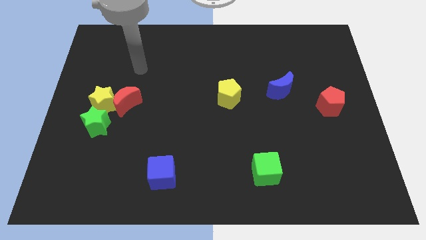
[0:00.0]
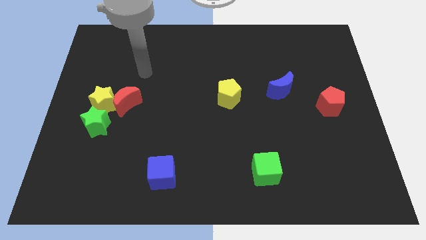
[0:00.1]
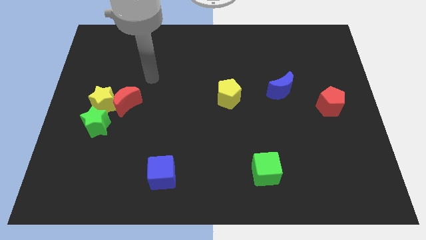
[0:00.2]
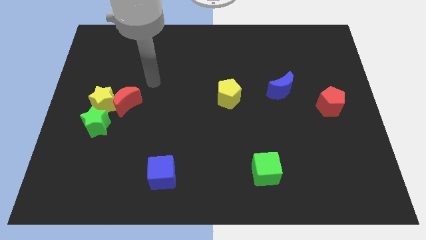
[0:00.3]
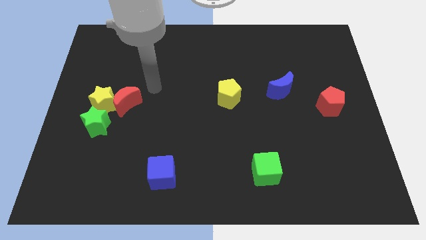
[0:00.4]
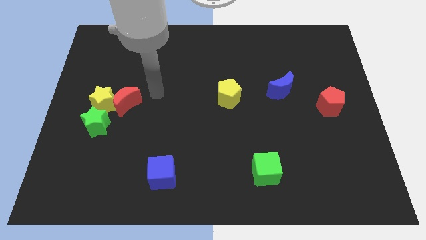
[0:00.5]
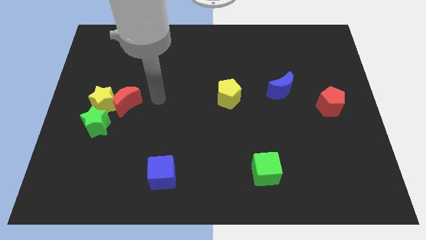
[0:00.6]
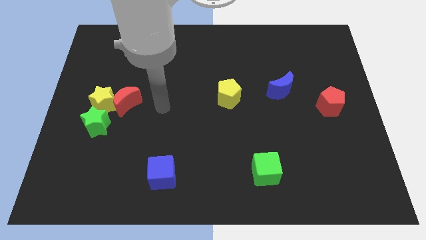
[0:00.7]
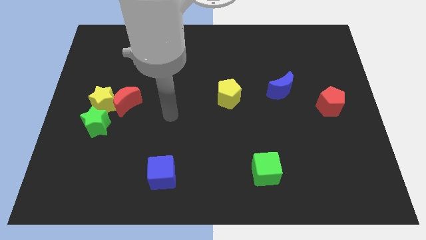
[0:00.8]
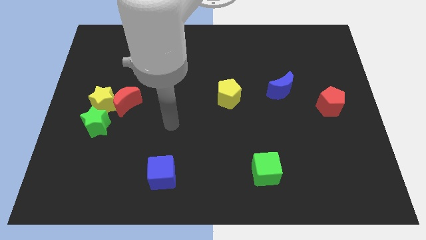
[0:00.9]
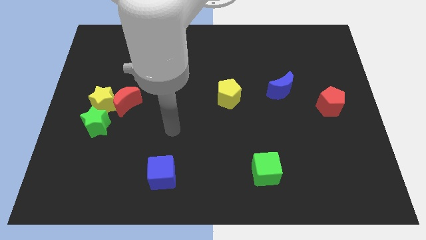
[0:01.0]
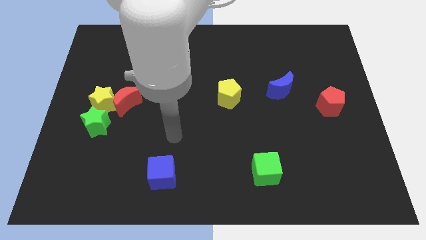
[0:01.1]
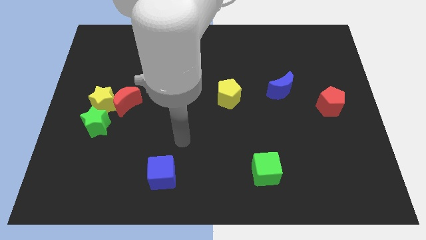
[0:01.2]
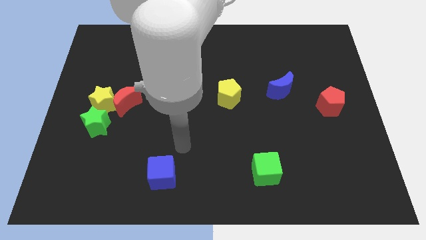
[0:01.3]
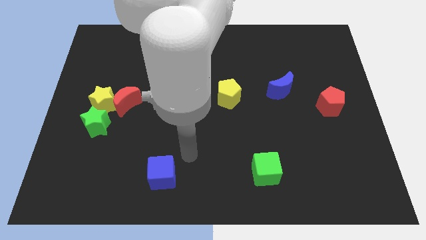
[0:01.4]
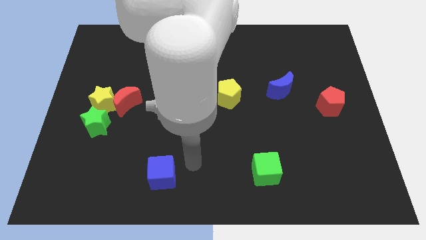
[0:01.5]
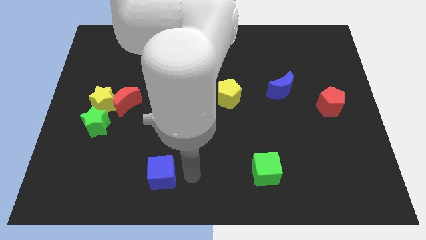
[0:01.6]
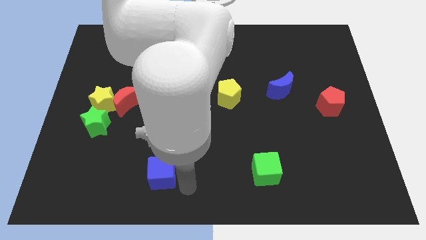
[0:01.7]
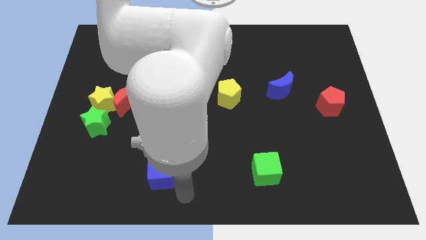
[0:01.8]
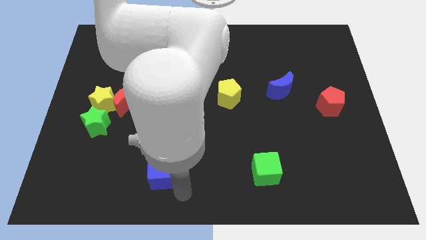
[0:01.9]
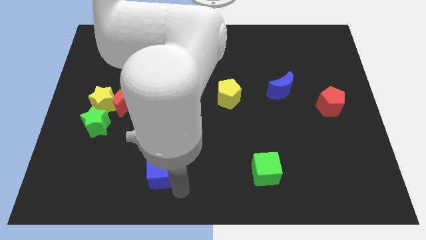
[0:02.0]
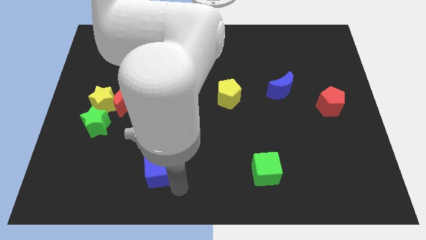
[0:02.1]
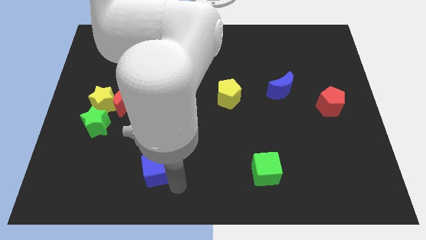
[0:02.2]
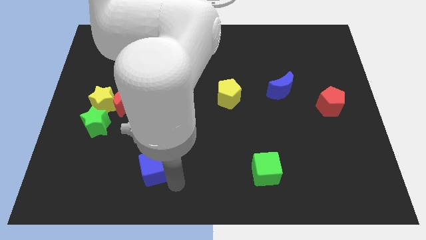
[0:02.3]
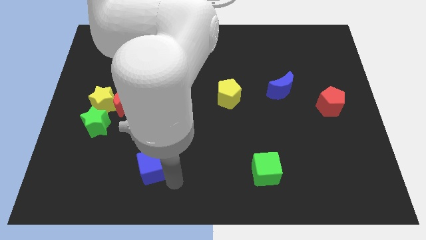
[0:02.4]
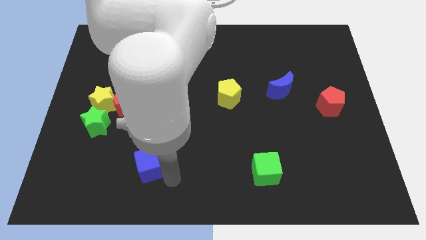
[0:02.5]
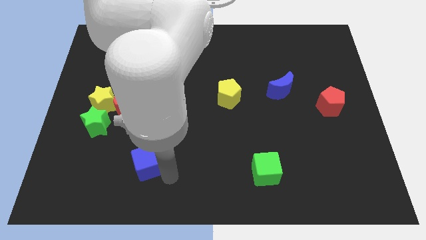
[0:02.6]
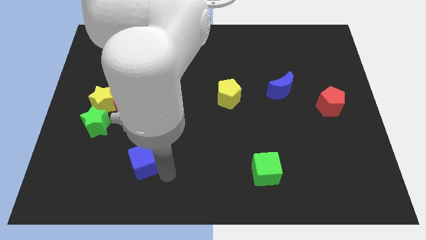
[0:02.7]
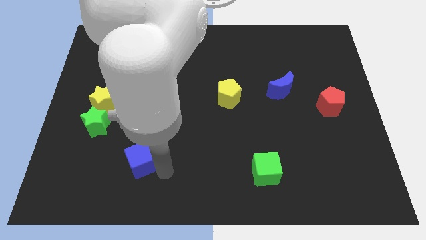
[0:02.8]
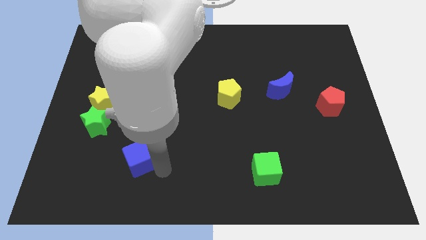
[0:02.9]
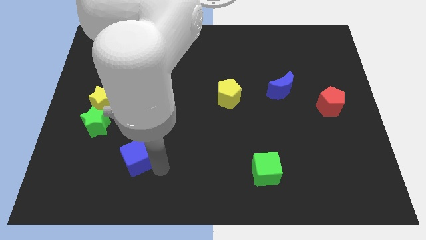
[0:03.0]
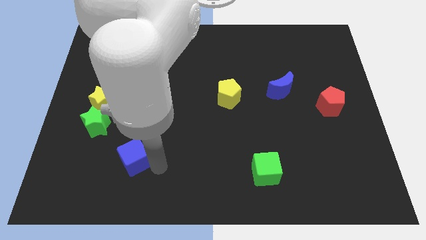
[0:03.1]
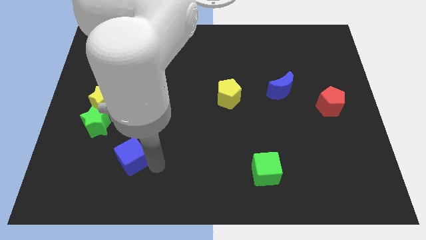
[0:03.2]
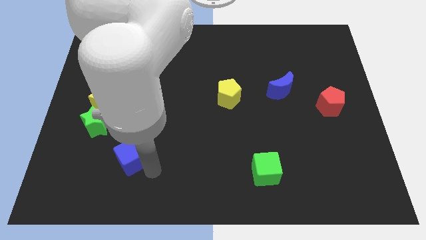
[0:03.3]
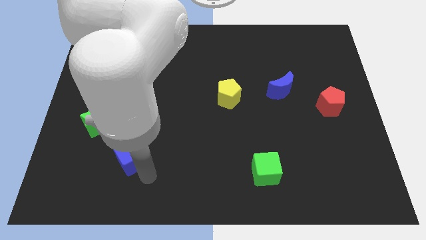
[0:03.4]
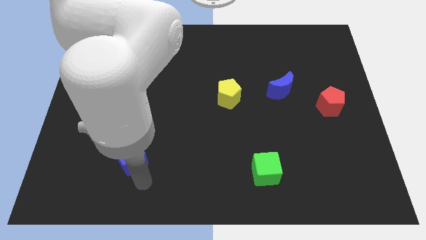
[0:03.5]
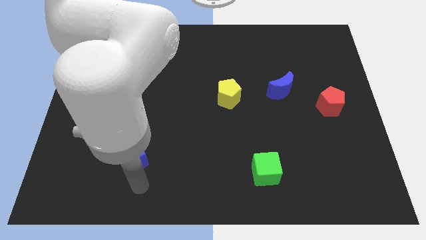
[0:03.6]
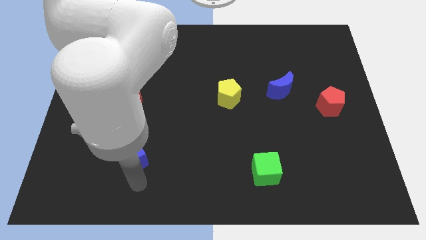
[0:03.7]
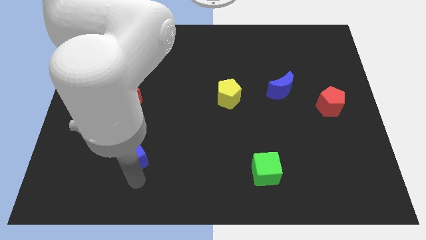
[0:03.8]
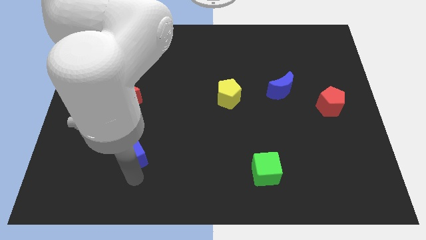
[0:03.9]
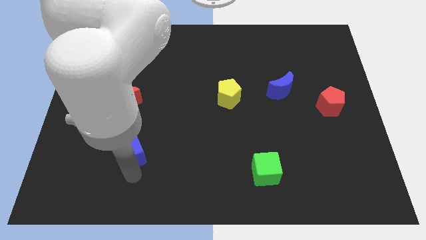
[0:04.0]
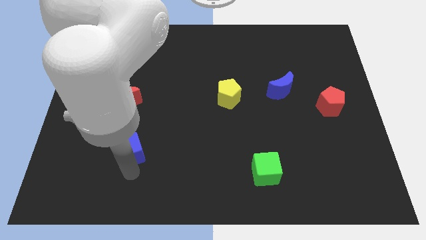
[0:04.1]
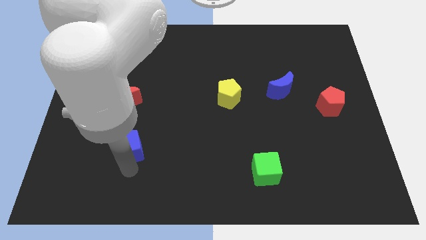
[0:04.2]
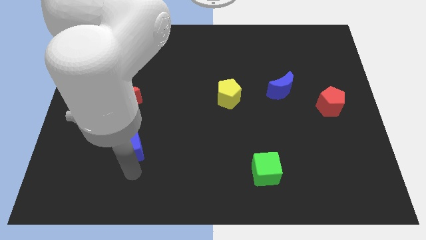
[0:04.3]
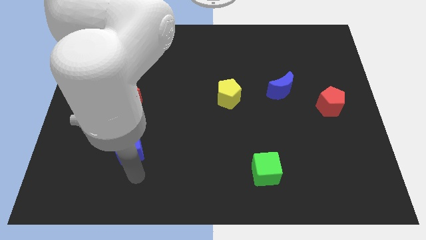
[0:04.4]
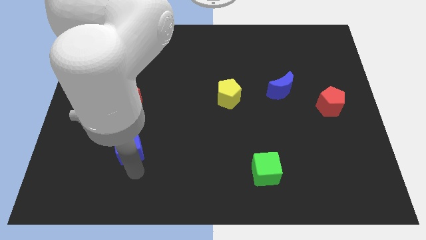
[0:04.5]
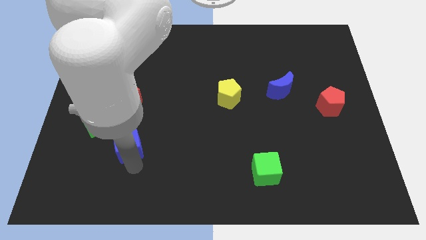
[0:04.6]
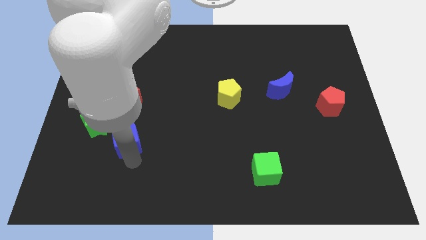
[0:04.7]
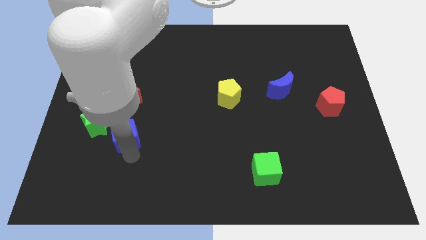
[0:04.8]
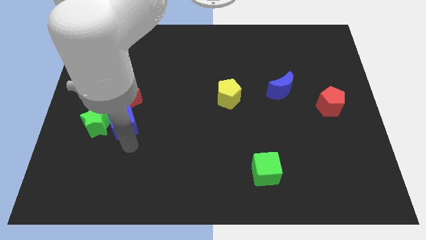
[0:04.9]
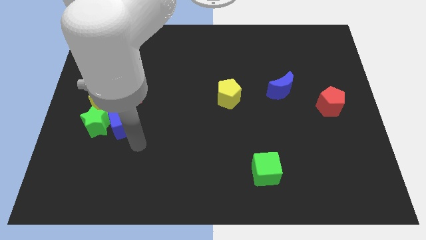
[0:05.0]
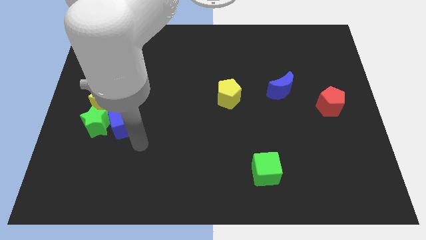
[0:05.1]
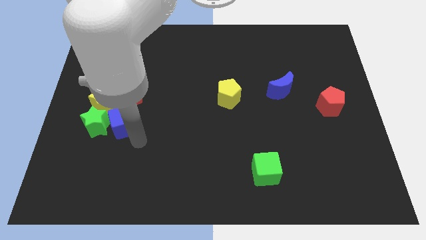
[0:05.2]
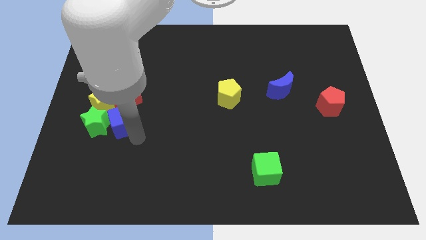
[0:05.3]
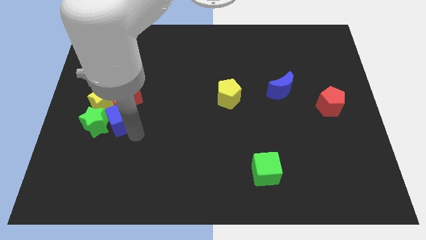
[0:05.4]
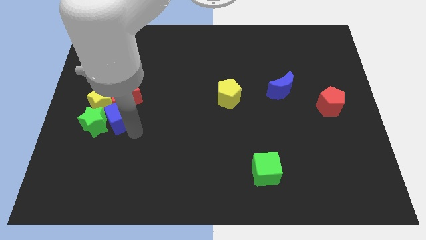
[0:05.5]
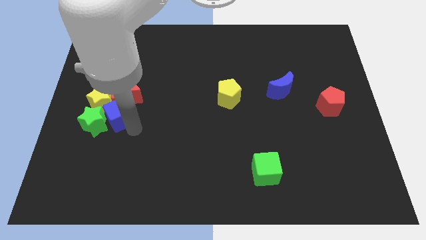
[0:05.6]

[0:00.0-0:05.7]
push the blue cube close to the yellow star
